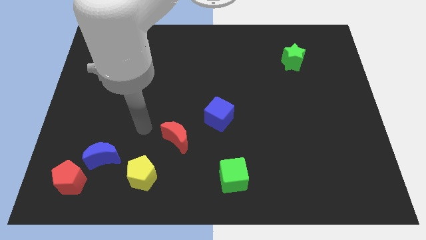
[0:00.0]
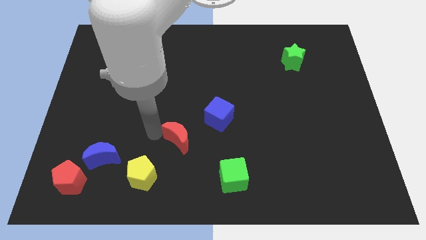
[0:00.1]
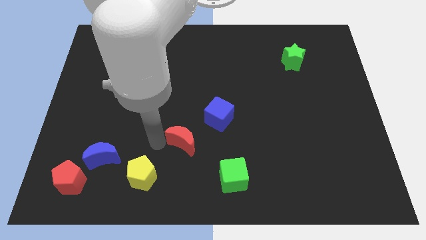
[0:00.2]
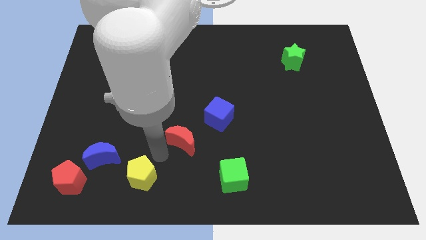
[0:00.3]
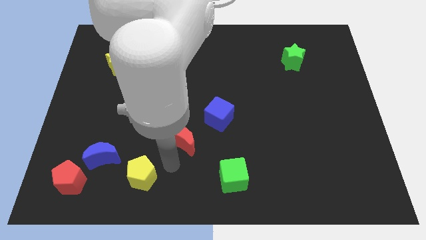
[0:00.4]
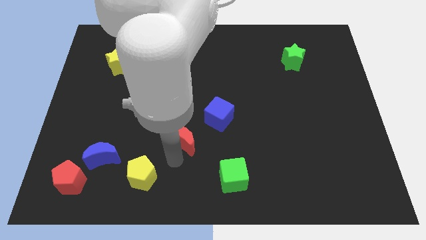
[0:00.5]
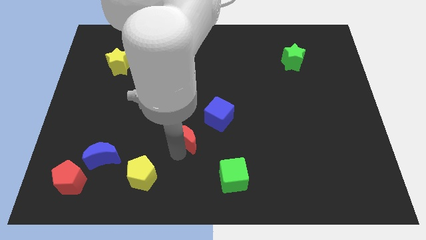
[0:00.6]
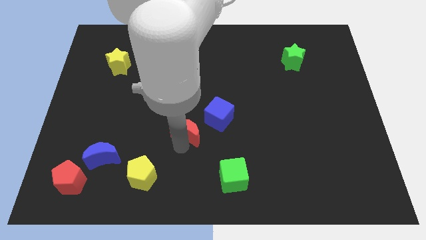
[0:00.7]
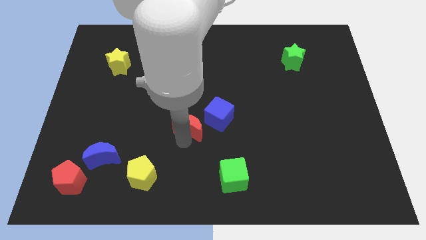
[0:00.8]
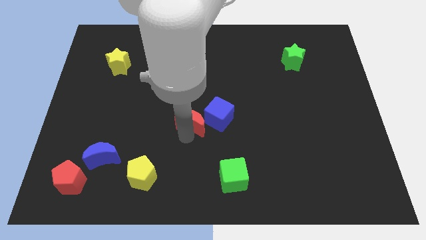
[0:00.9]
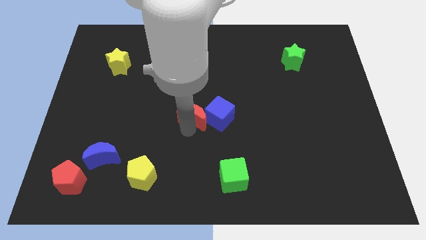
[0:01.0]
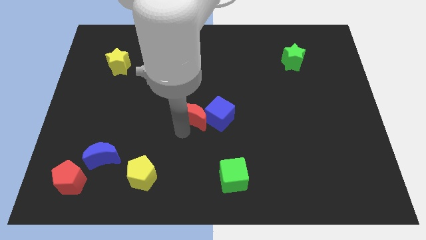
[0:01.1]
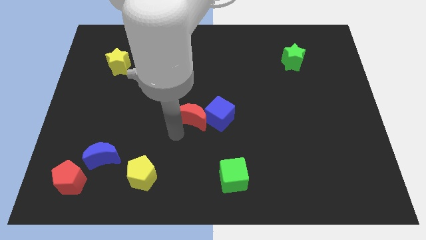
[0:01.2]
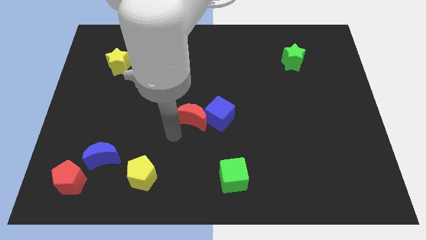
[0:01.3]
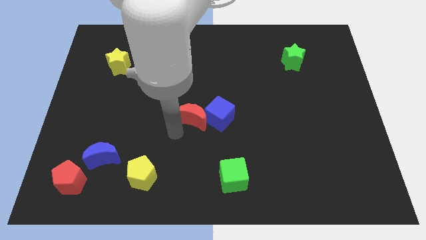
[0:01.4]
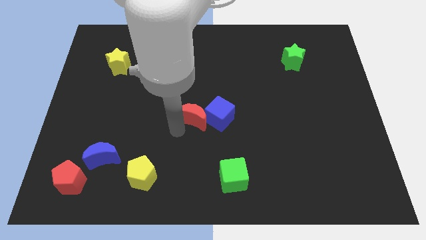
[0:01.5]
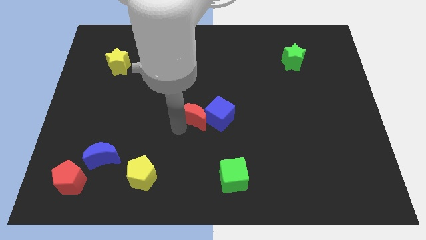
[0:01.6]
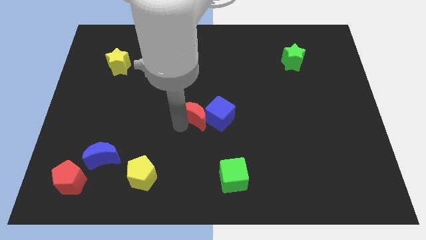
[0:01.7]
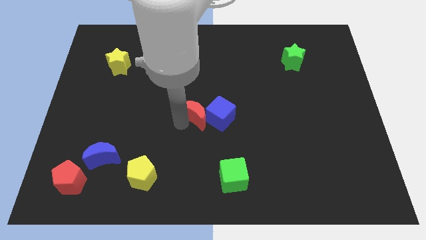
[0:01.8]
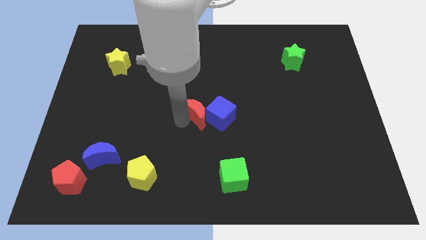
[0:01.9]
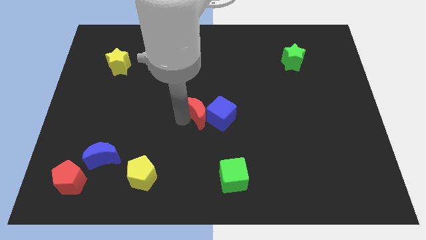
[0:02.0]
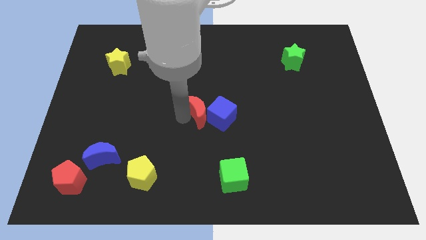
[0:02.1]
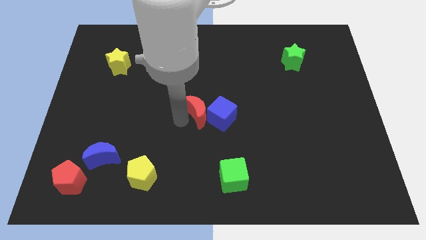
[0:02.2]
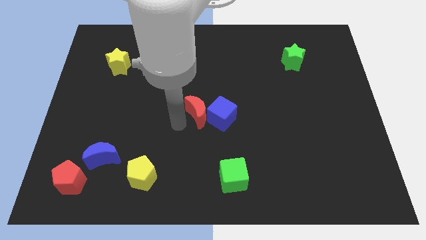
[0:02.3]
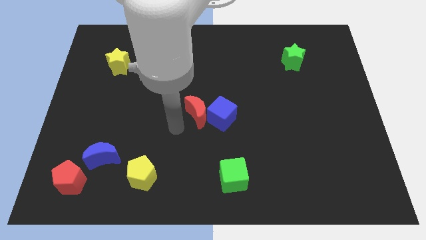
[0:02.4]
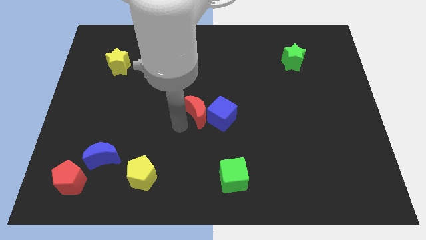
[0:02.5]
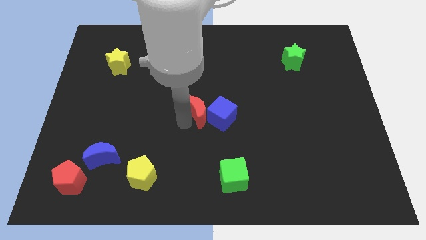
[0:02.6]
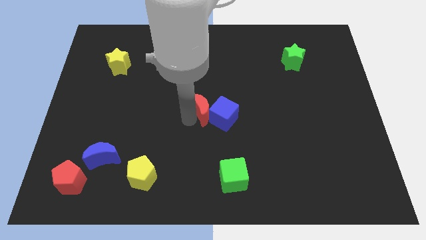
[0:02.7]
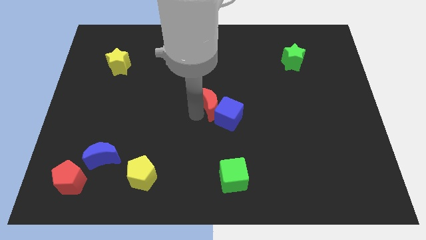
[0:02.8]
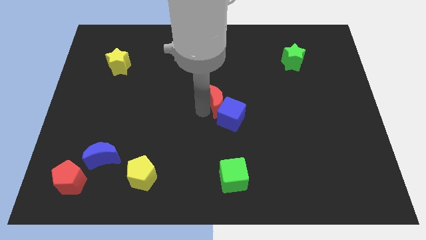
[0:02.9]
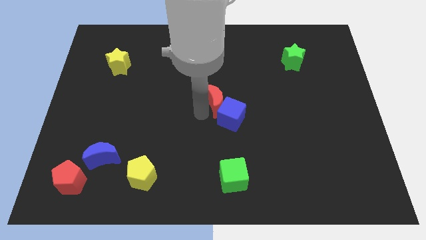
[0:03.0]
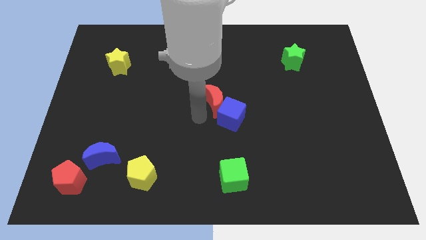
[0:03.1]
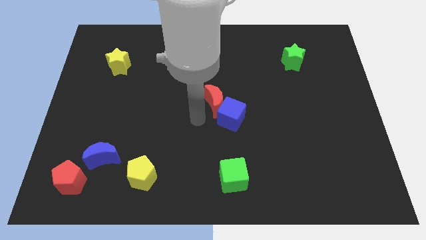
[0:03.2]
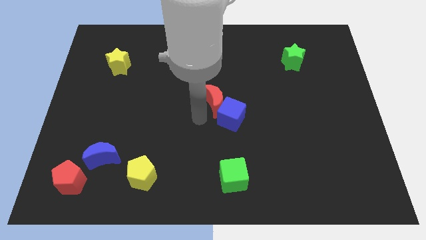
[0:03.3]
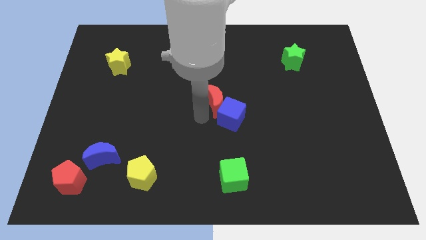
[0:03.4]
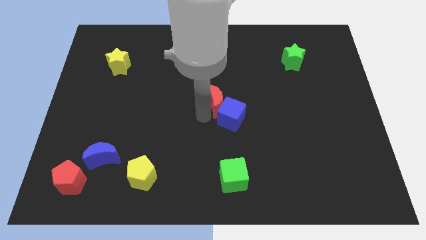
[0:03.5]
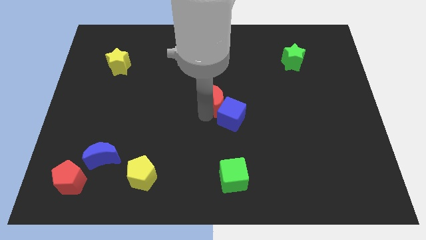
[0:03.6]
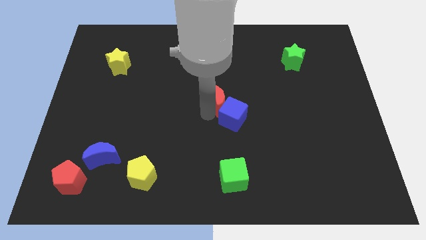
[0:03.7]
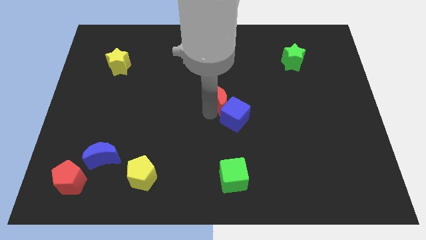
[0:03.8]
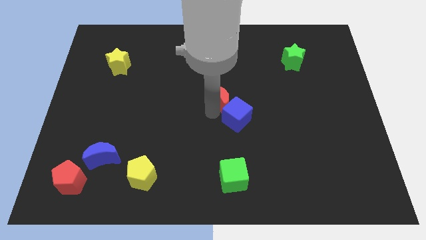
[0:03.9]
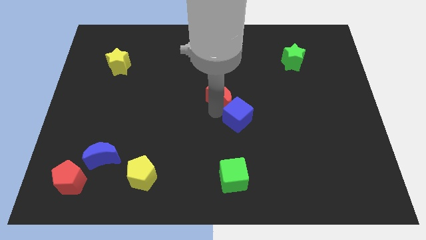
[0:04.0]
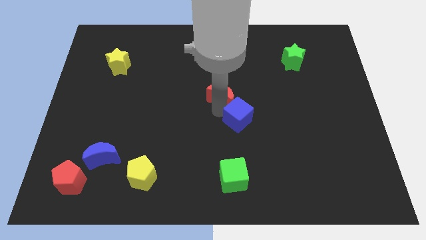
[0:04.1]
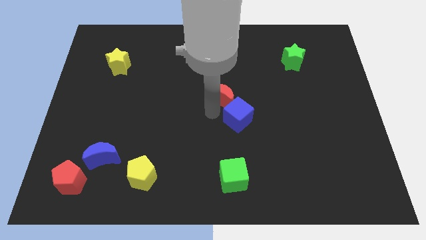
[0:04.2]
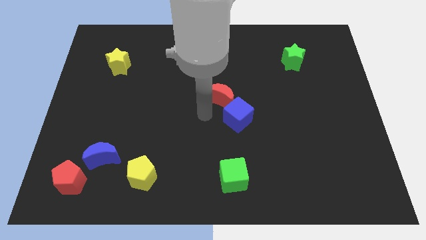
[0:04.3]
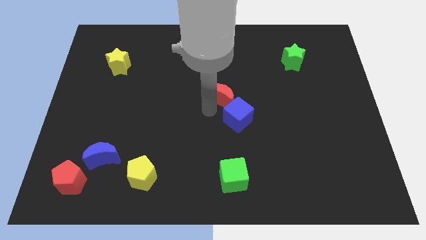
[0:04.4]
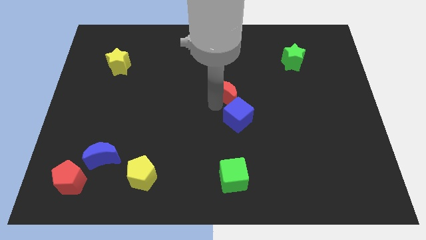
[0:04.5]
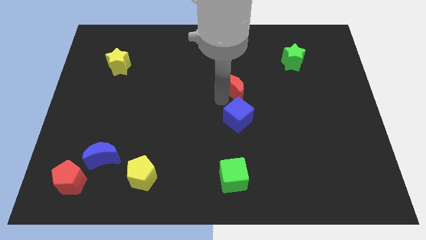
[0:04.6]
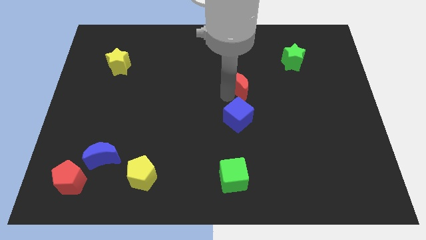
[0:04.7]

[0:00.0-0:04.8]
slide the red moon up and right

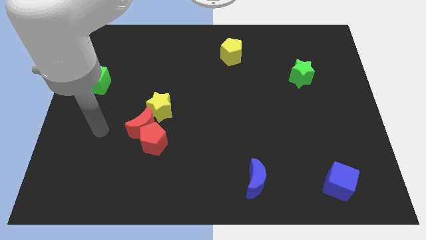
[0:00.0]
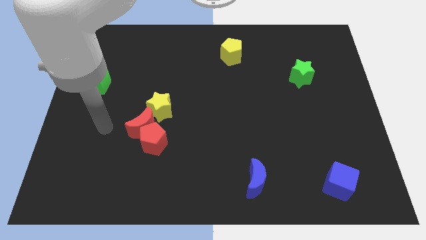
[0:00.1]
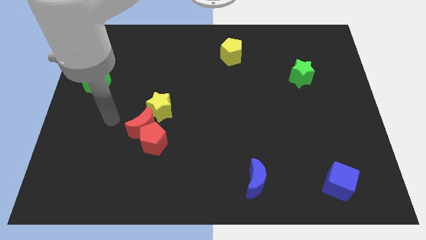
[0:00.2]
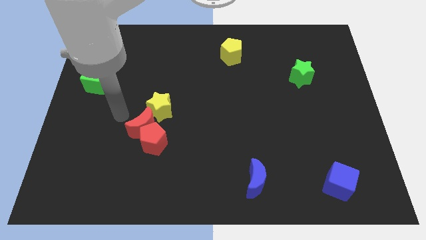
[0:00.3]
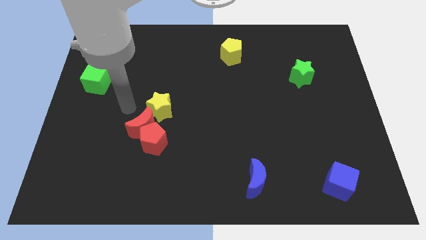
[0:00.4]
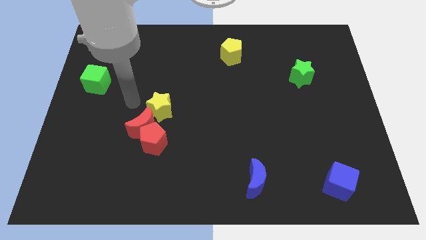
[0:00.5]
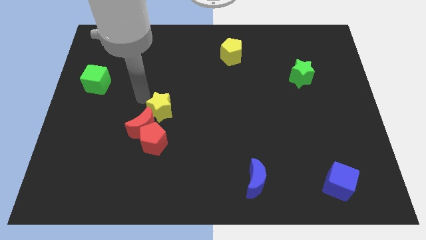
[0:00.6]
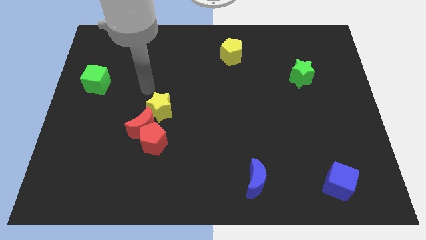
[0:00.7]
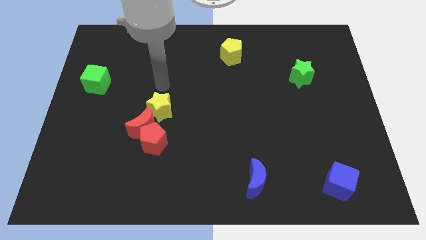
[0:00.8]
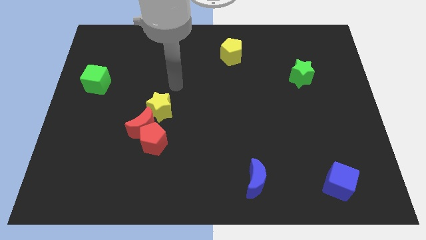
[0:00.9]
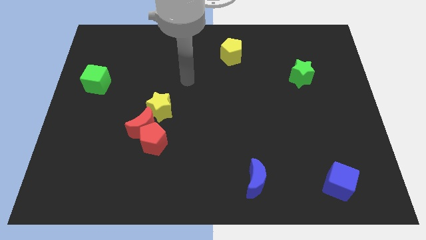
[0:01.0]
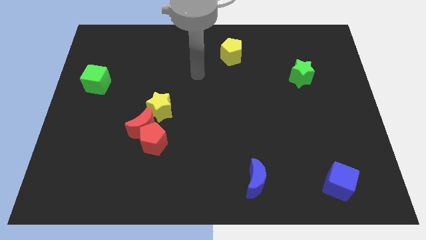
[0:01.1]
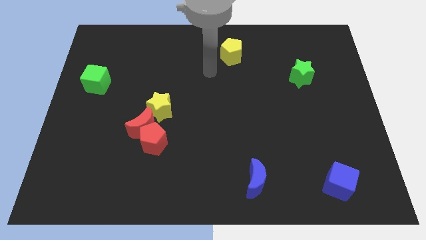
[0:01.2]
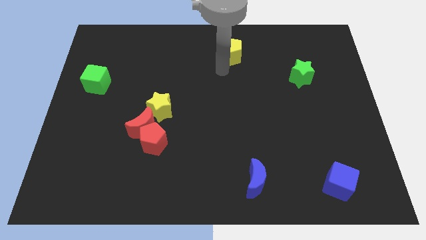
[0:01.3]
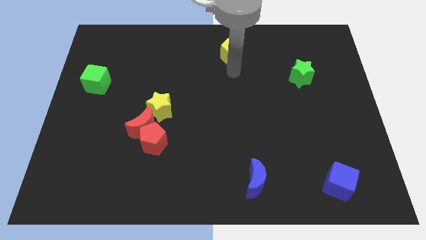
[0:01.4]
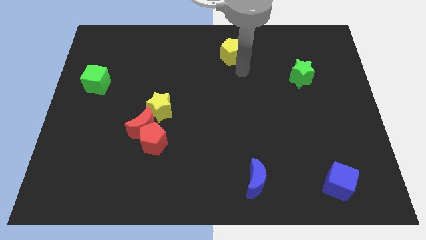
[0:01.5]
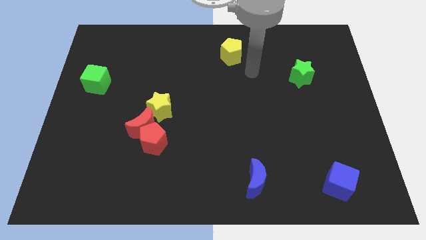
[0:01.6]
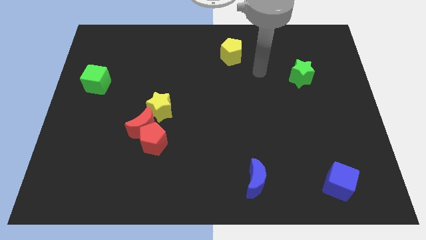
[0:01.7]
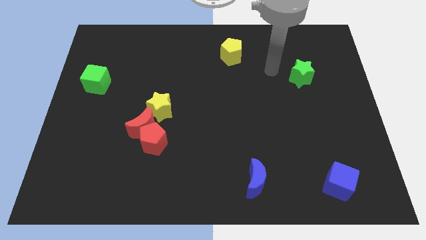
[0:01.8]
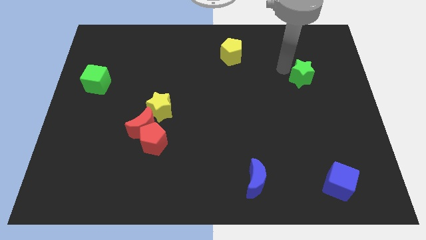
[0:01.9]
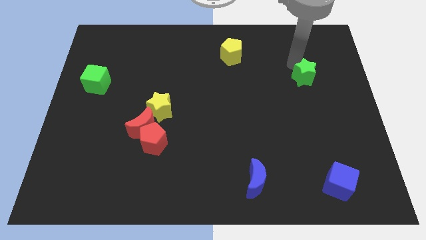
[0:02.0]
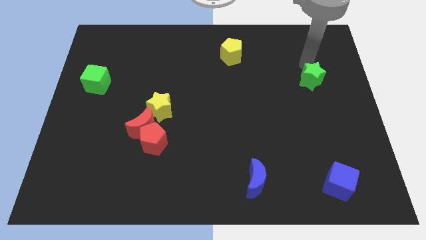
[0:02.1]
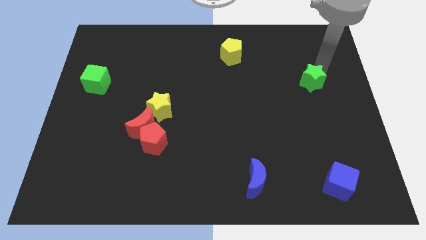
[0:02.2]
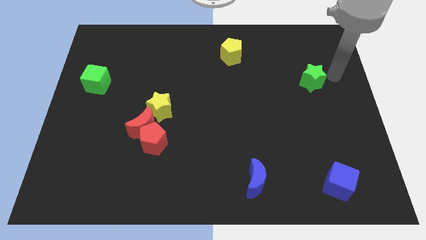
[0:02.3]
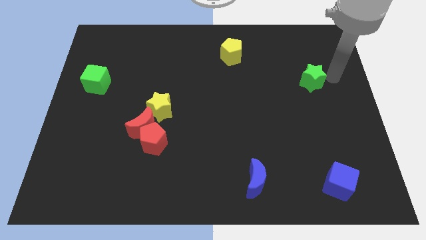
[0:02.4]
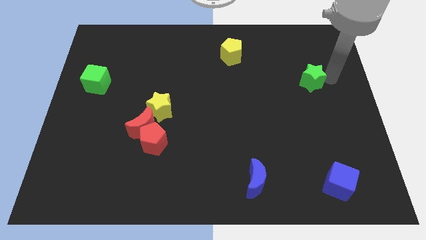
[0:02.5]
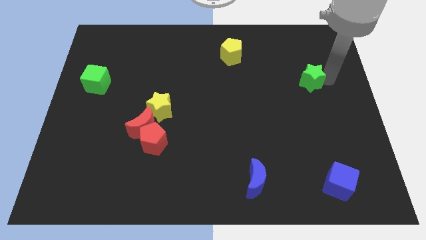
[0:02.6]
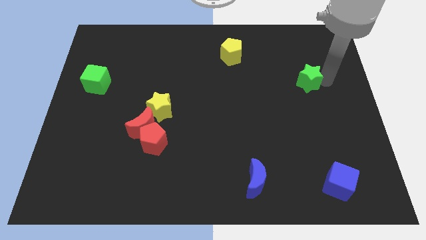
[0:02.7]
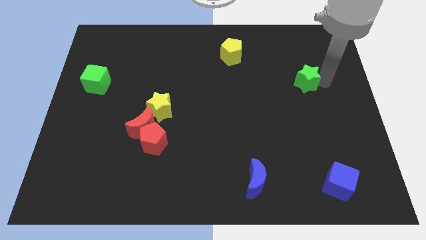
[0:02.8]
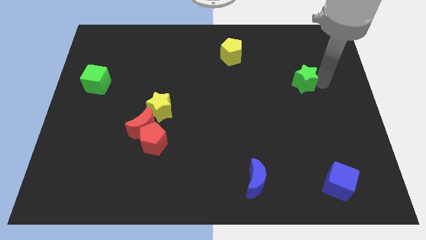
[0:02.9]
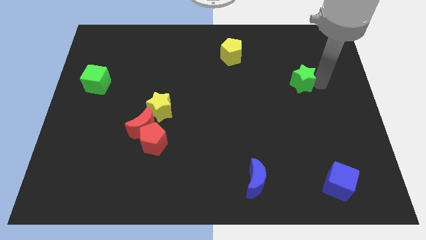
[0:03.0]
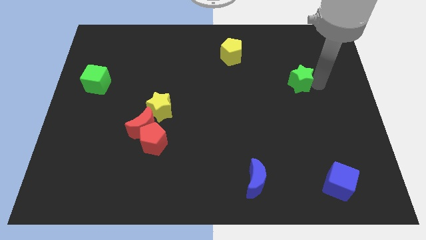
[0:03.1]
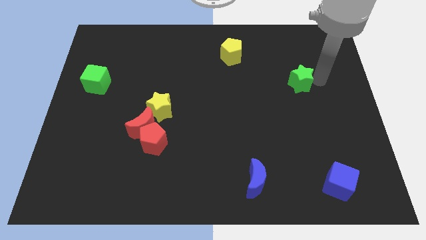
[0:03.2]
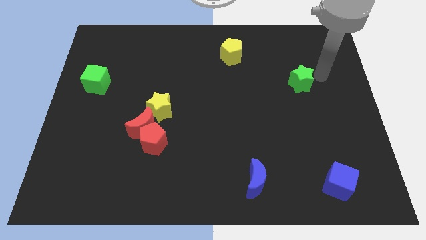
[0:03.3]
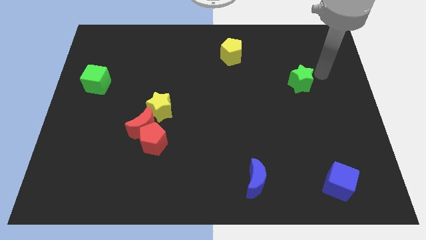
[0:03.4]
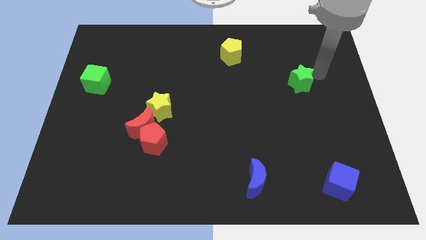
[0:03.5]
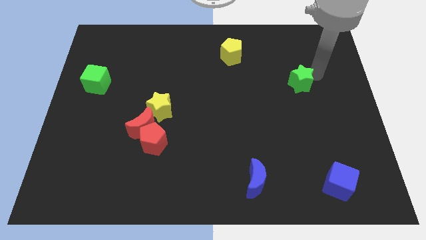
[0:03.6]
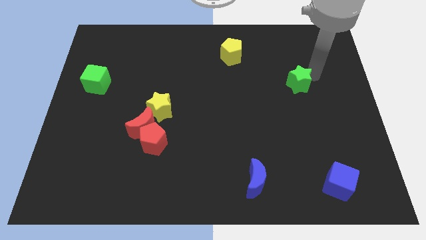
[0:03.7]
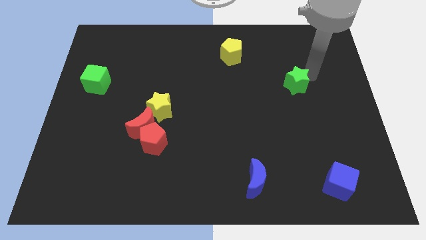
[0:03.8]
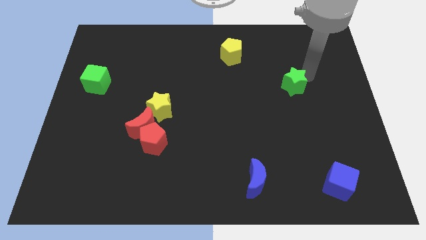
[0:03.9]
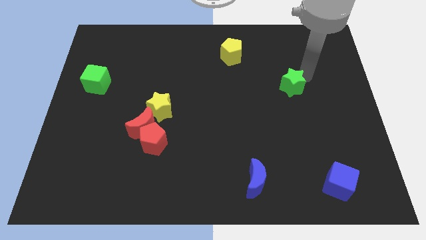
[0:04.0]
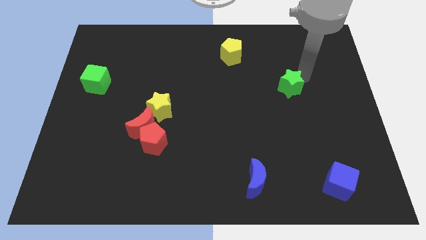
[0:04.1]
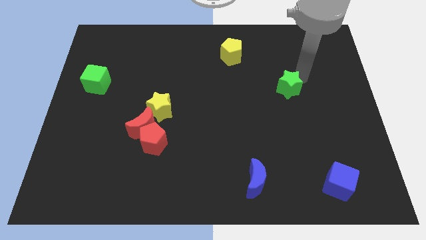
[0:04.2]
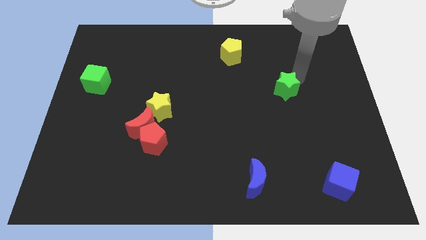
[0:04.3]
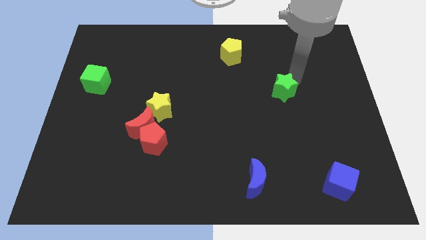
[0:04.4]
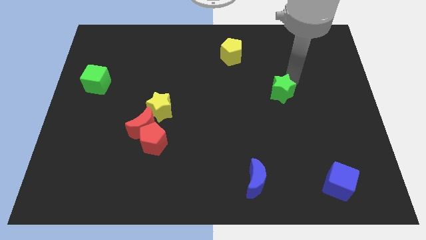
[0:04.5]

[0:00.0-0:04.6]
slightly move the green star diagonally down and left
